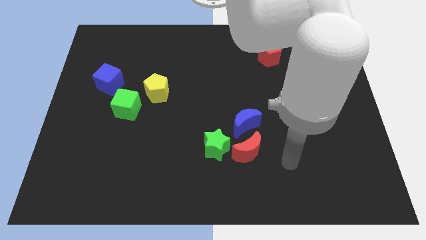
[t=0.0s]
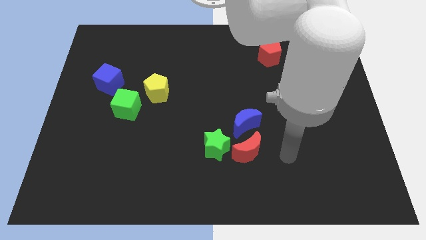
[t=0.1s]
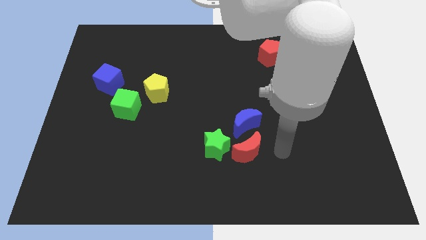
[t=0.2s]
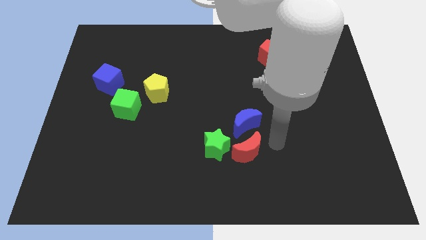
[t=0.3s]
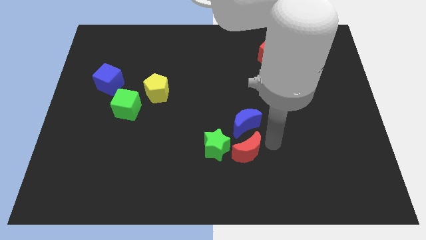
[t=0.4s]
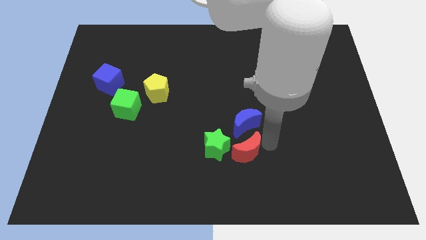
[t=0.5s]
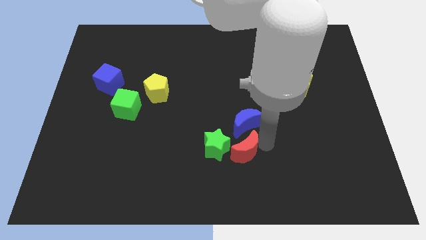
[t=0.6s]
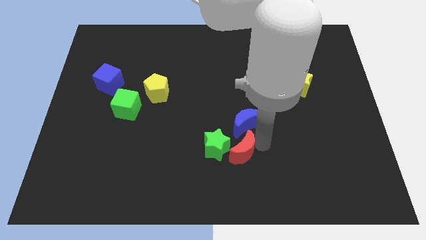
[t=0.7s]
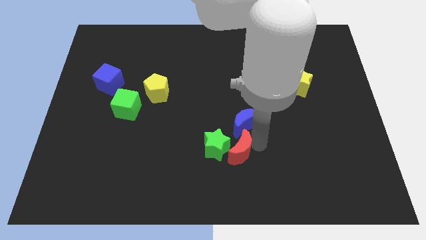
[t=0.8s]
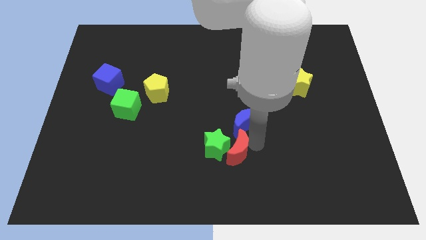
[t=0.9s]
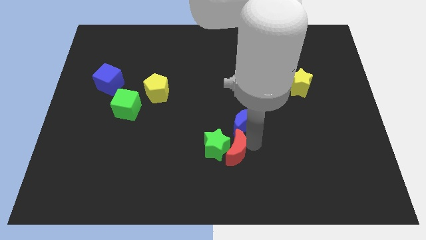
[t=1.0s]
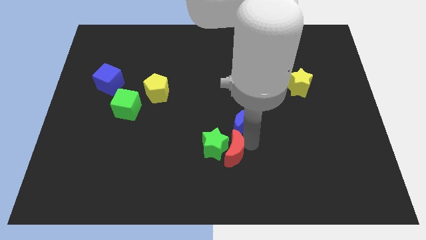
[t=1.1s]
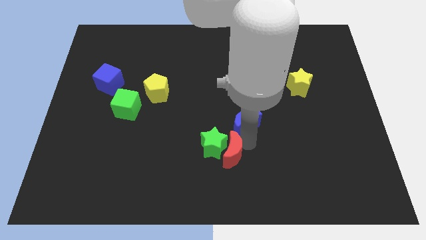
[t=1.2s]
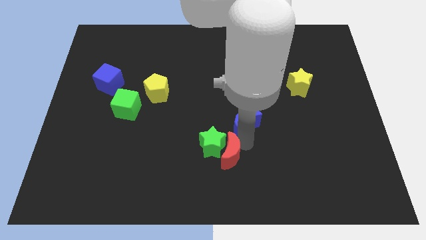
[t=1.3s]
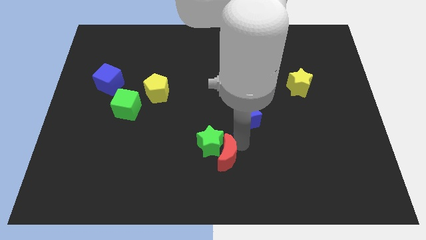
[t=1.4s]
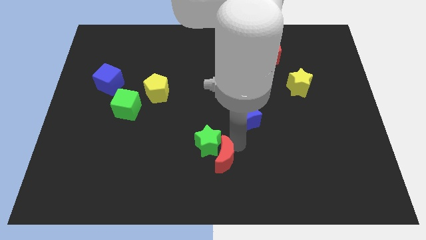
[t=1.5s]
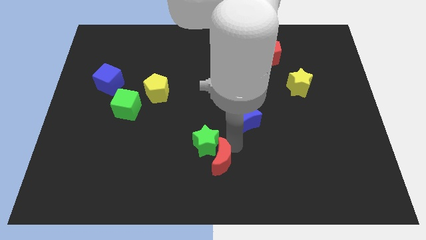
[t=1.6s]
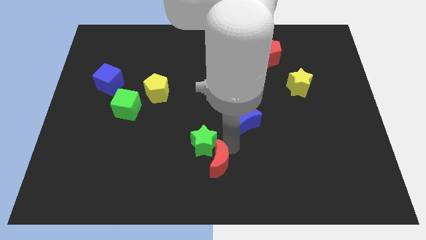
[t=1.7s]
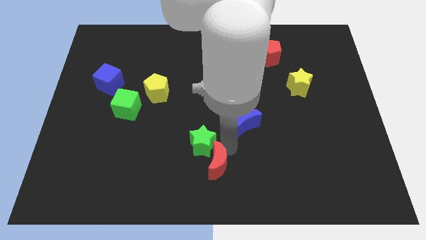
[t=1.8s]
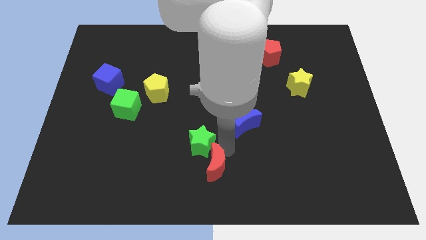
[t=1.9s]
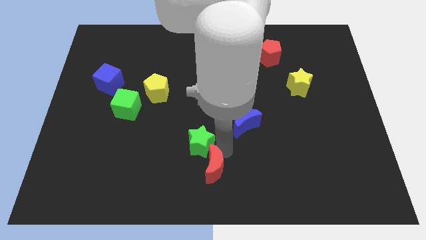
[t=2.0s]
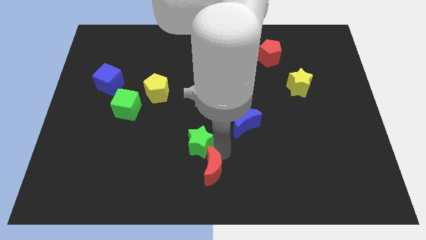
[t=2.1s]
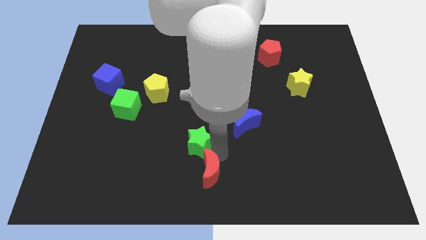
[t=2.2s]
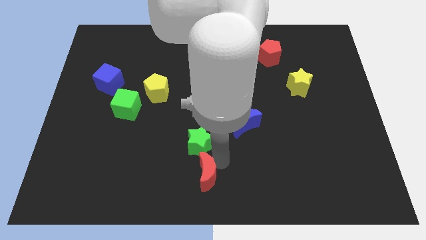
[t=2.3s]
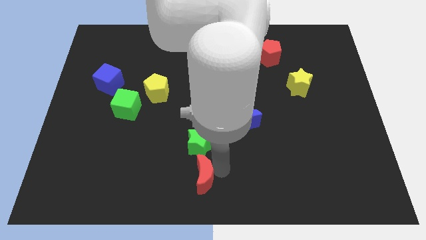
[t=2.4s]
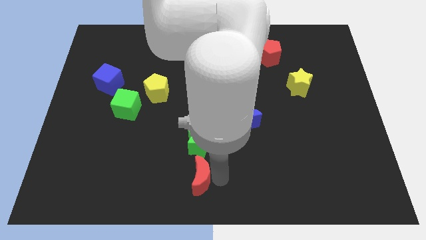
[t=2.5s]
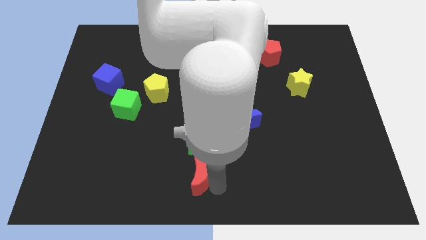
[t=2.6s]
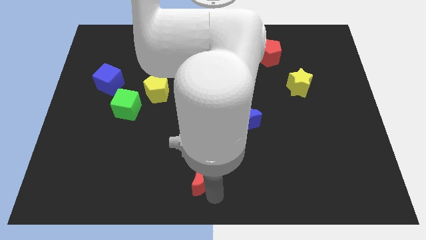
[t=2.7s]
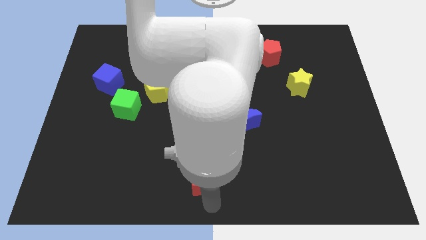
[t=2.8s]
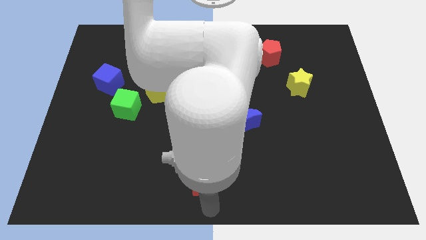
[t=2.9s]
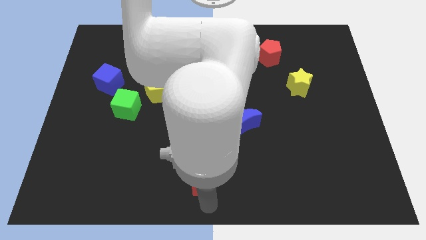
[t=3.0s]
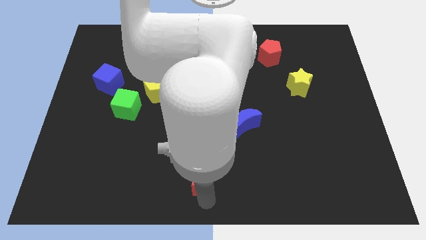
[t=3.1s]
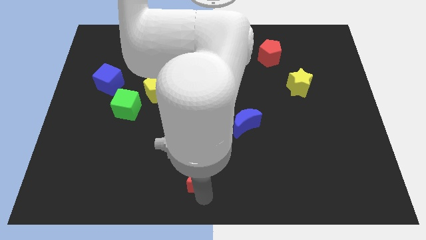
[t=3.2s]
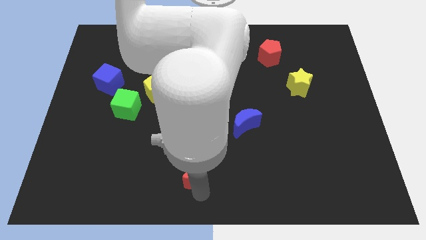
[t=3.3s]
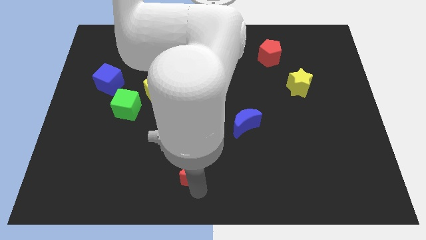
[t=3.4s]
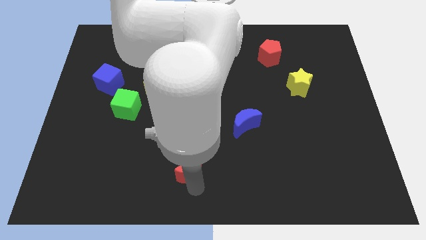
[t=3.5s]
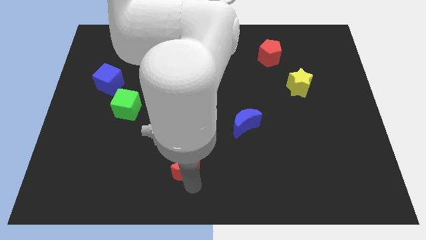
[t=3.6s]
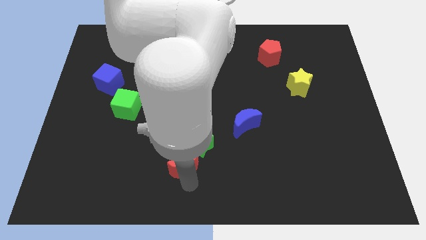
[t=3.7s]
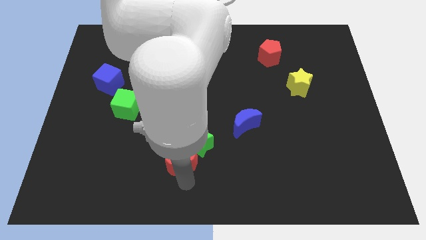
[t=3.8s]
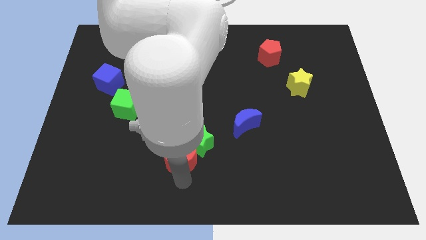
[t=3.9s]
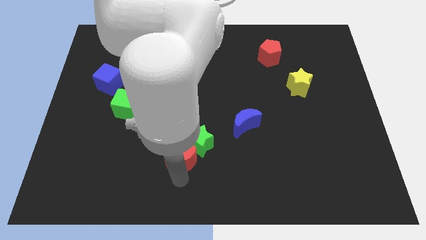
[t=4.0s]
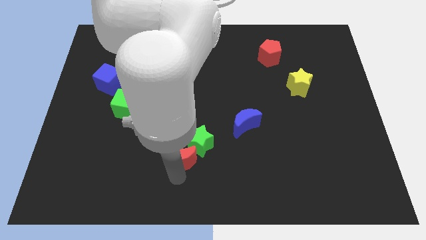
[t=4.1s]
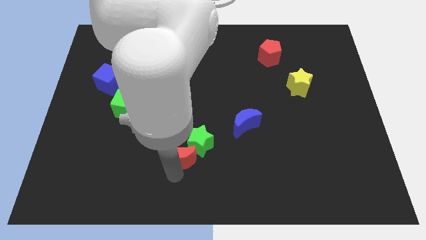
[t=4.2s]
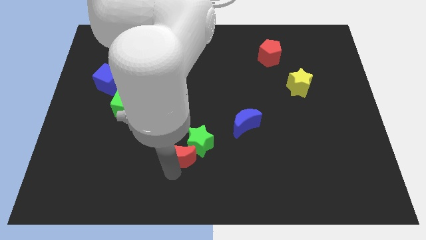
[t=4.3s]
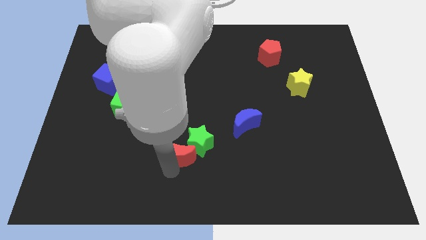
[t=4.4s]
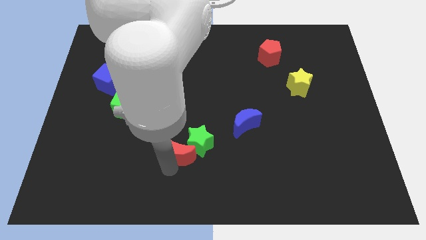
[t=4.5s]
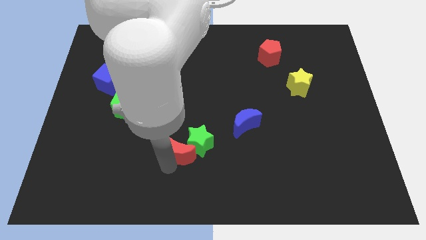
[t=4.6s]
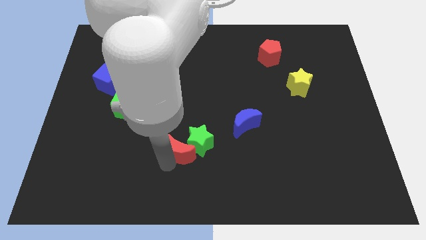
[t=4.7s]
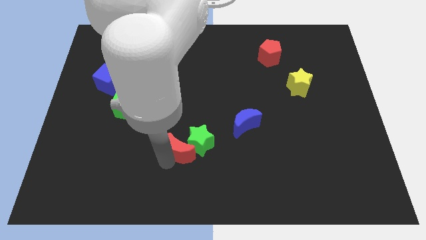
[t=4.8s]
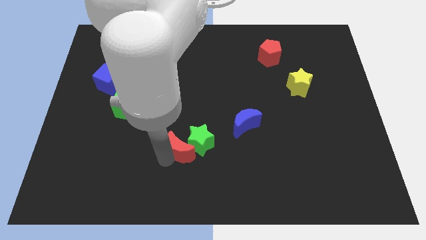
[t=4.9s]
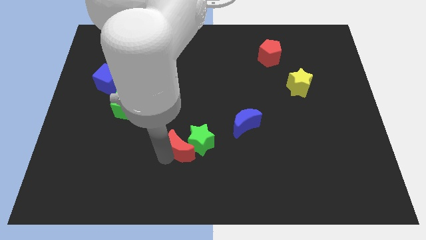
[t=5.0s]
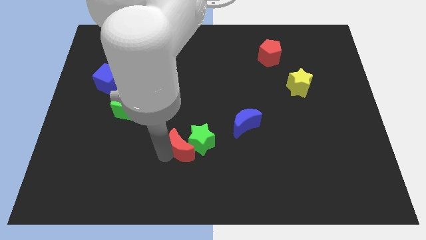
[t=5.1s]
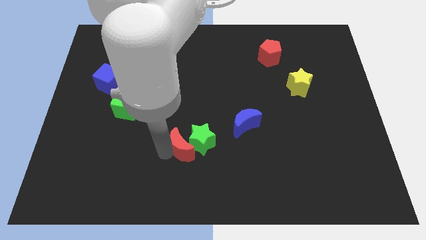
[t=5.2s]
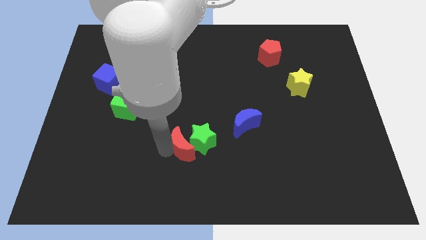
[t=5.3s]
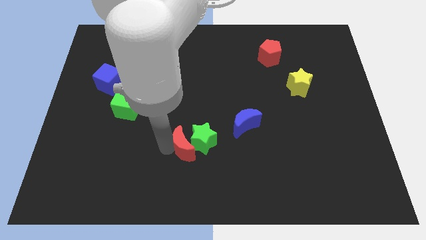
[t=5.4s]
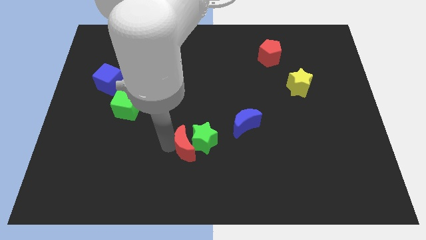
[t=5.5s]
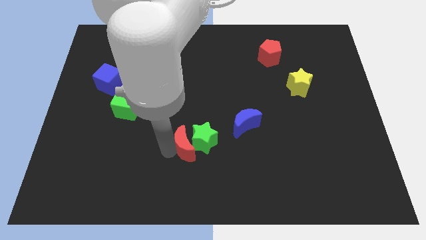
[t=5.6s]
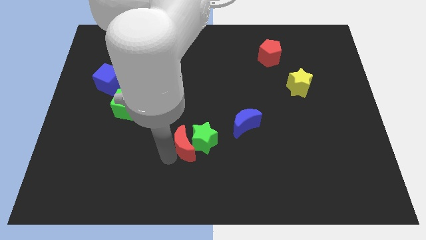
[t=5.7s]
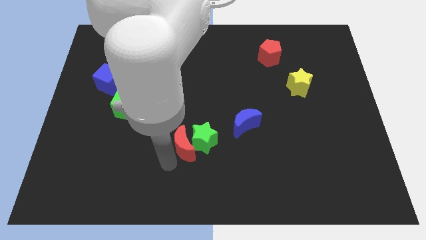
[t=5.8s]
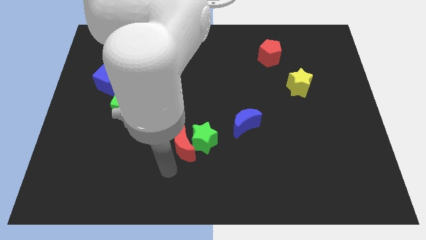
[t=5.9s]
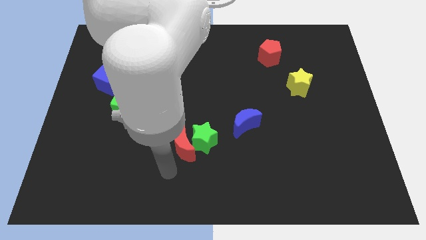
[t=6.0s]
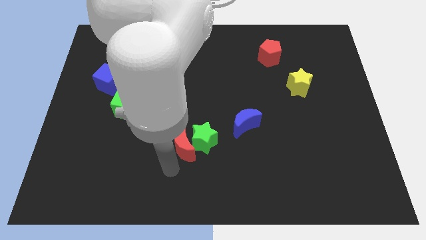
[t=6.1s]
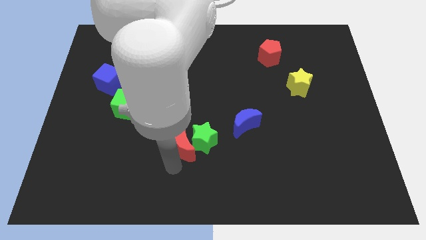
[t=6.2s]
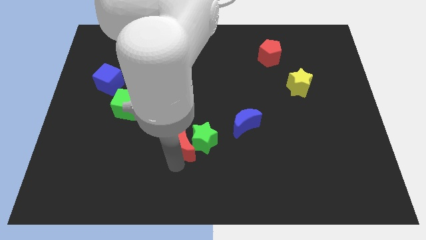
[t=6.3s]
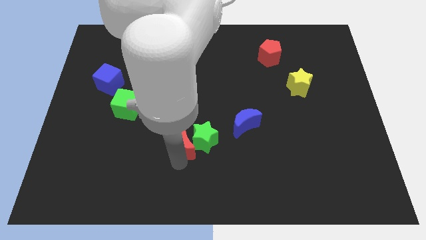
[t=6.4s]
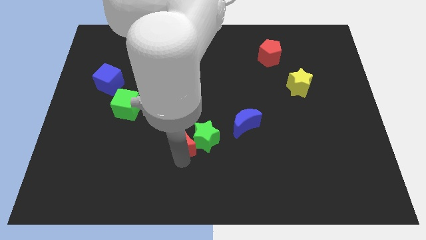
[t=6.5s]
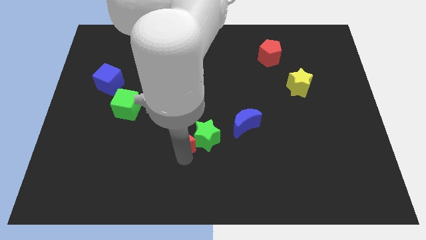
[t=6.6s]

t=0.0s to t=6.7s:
move the red moon left of the blue moon

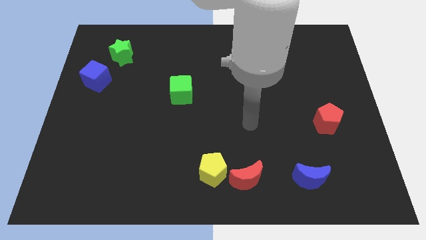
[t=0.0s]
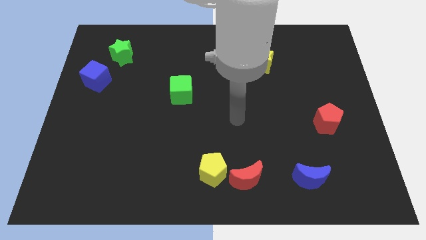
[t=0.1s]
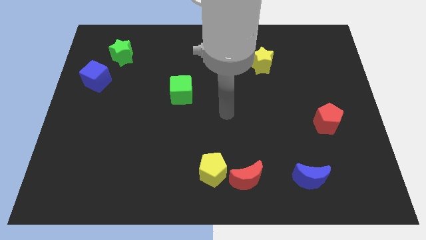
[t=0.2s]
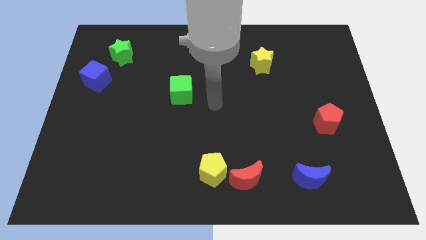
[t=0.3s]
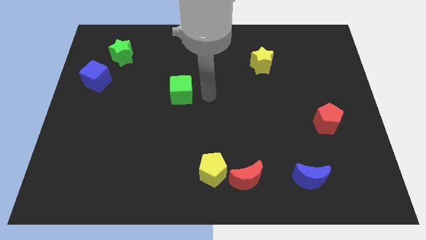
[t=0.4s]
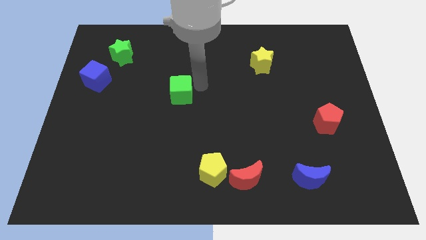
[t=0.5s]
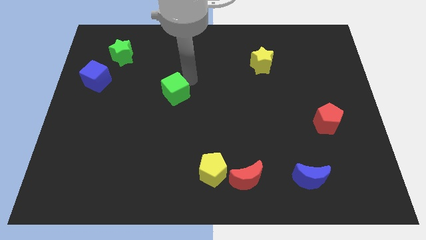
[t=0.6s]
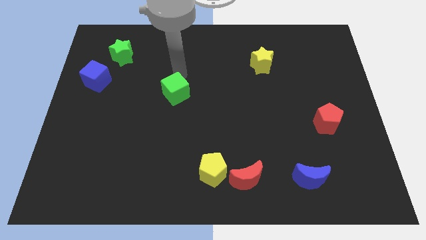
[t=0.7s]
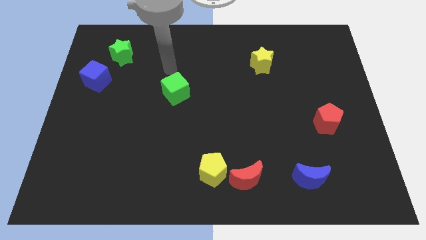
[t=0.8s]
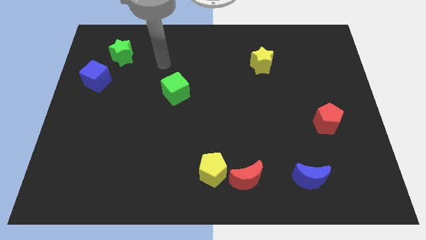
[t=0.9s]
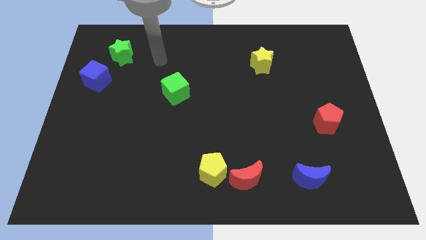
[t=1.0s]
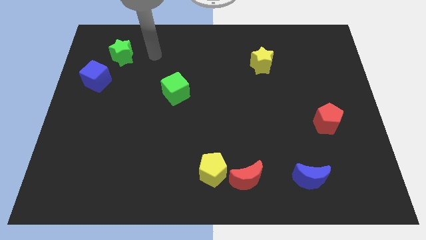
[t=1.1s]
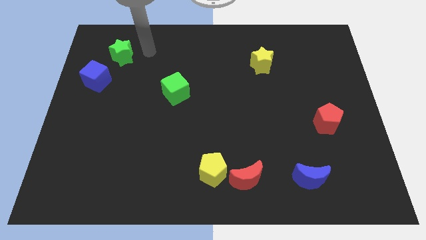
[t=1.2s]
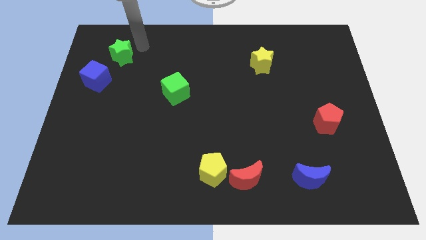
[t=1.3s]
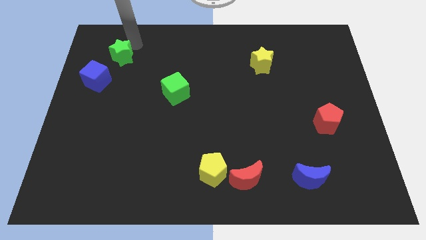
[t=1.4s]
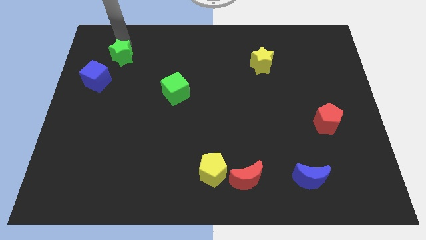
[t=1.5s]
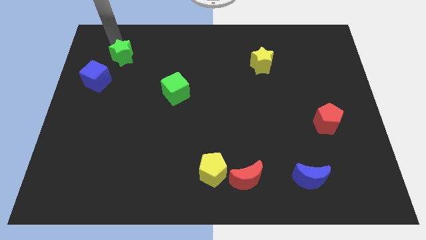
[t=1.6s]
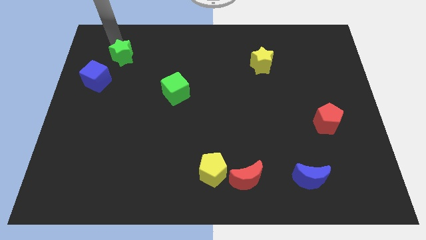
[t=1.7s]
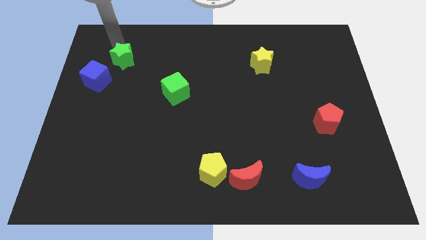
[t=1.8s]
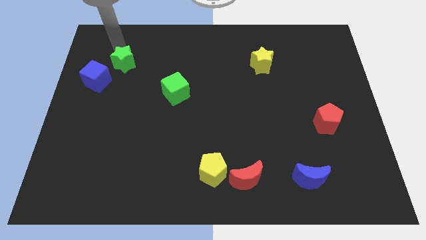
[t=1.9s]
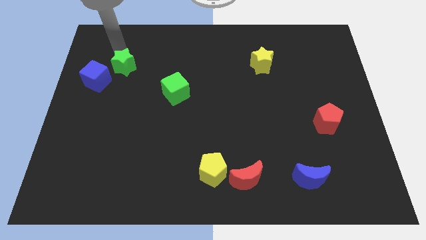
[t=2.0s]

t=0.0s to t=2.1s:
push the green star just right of the blue cube
